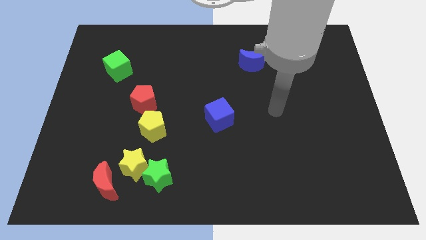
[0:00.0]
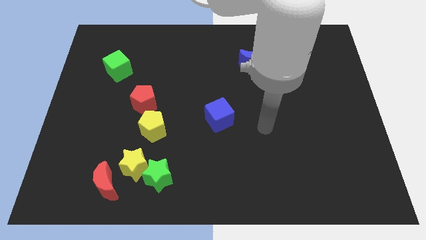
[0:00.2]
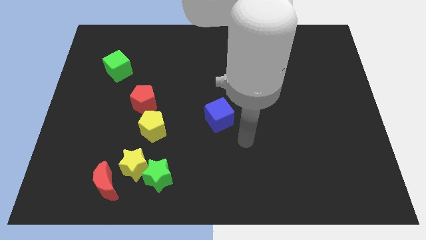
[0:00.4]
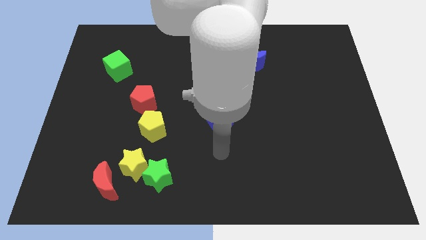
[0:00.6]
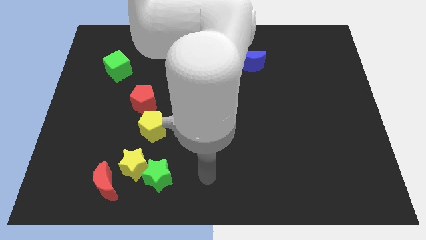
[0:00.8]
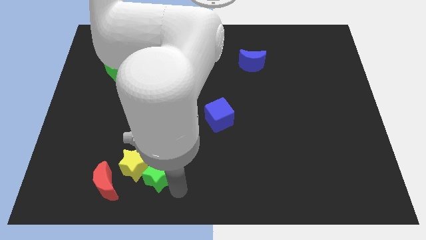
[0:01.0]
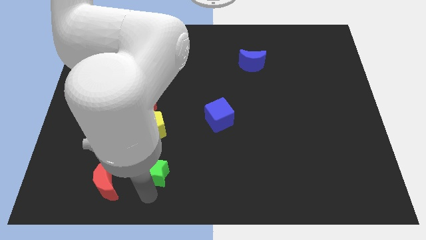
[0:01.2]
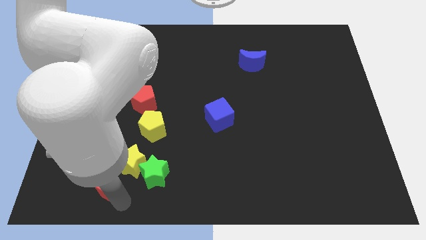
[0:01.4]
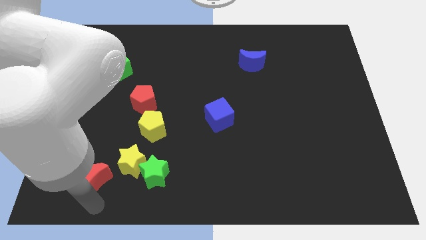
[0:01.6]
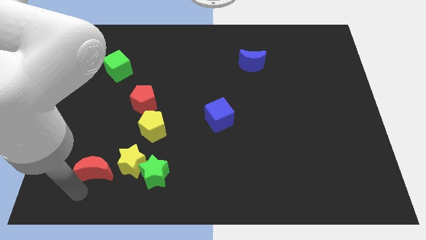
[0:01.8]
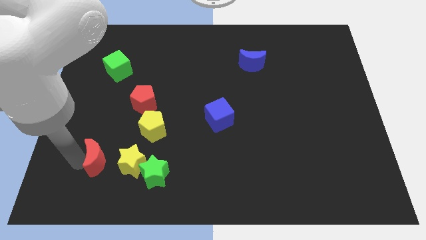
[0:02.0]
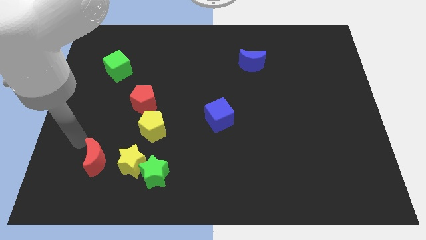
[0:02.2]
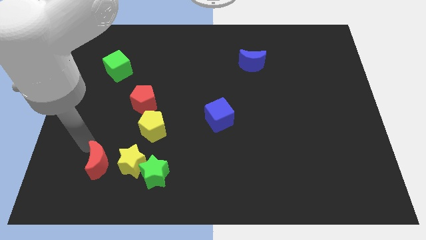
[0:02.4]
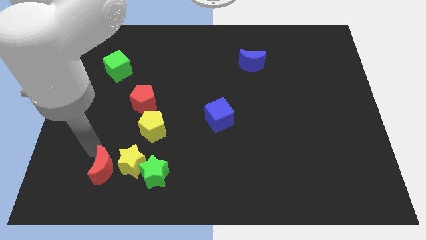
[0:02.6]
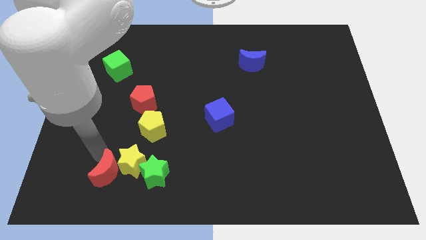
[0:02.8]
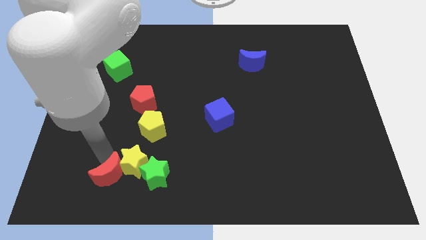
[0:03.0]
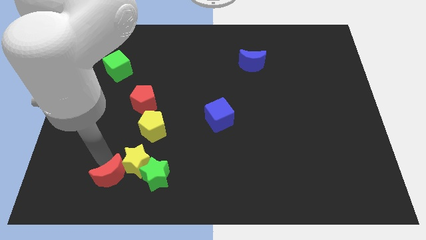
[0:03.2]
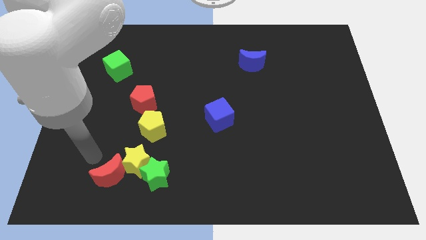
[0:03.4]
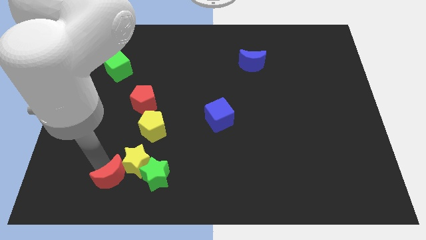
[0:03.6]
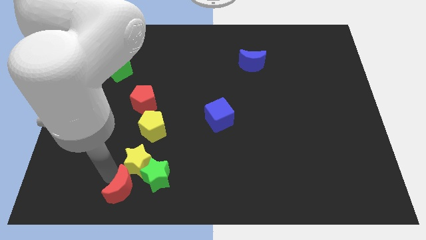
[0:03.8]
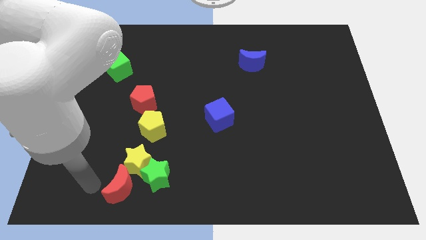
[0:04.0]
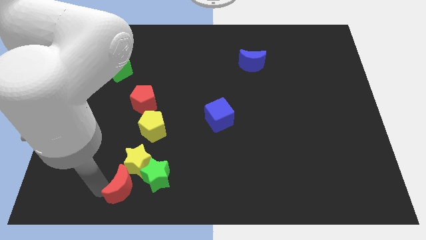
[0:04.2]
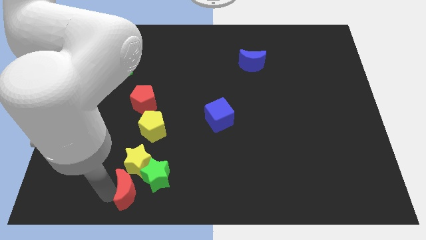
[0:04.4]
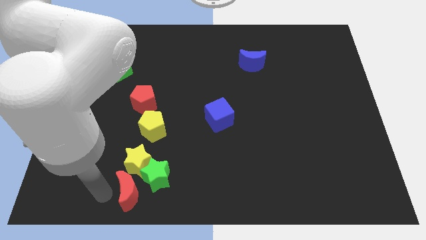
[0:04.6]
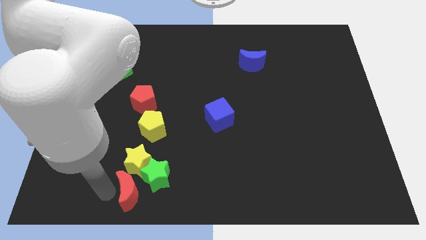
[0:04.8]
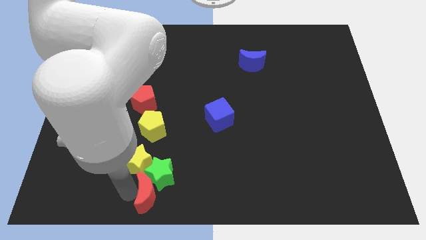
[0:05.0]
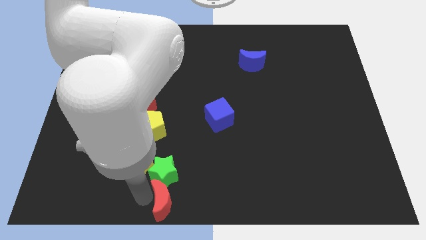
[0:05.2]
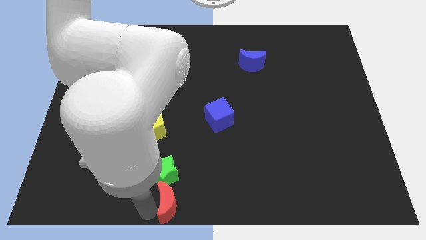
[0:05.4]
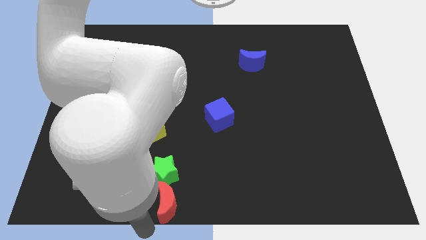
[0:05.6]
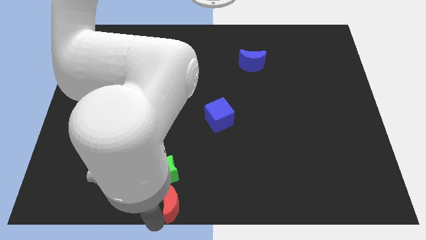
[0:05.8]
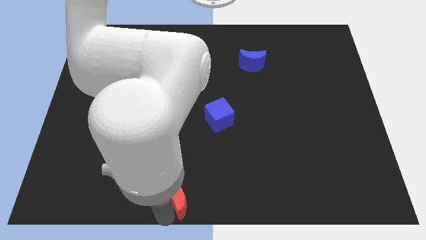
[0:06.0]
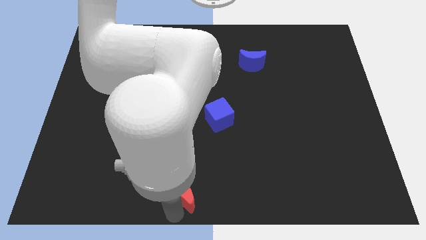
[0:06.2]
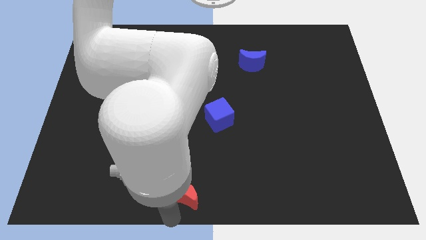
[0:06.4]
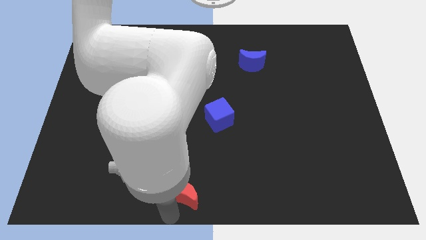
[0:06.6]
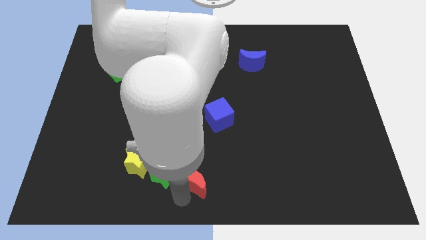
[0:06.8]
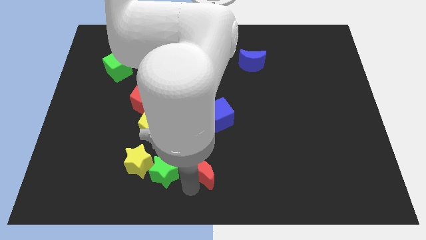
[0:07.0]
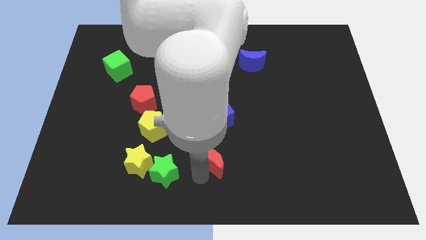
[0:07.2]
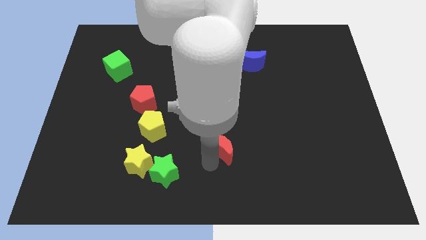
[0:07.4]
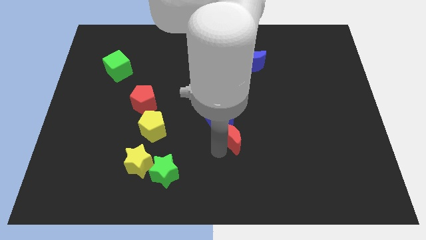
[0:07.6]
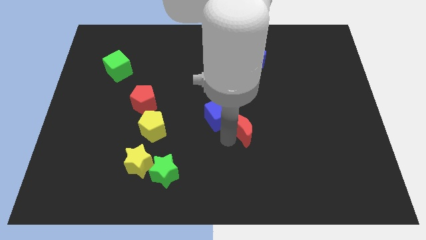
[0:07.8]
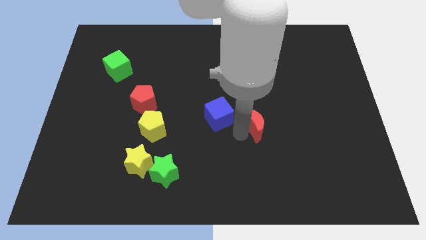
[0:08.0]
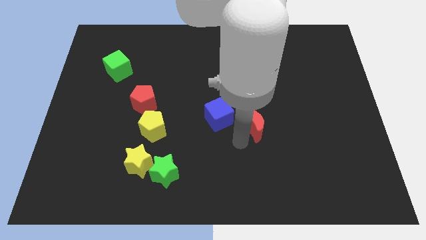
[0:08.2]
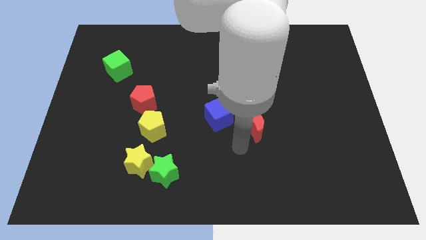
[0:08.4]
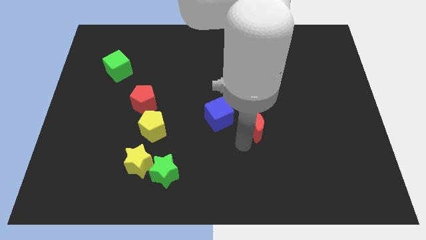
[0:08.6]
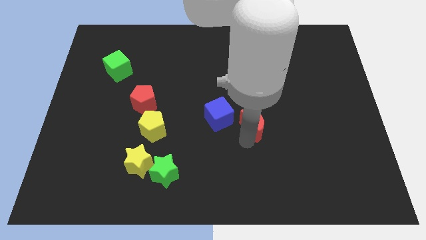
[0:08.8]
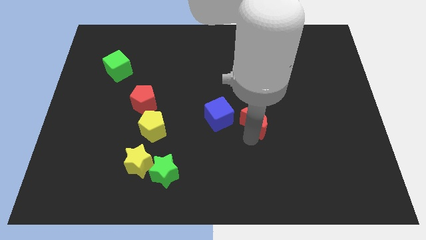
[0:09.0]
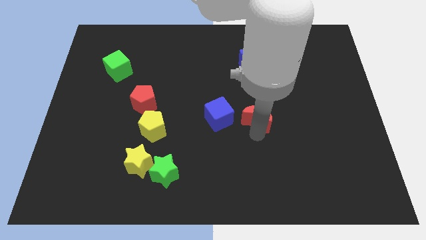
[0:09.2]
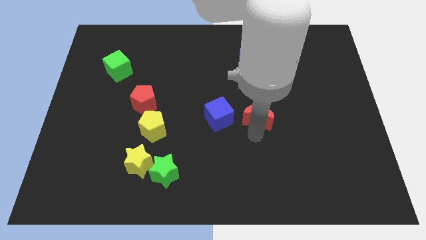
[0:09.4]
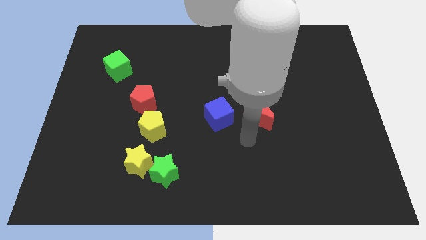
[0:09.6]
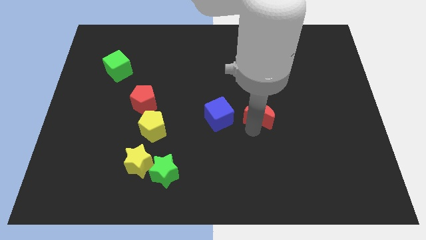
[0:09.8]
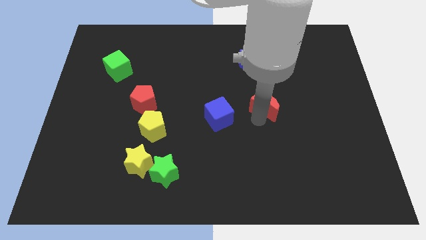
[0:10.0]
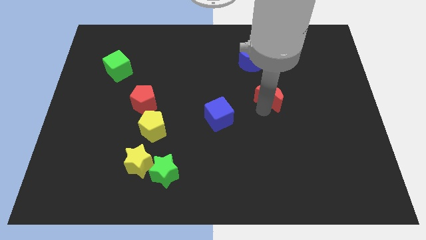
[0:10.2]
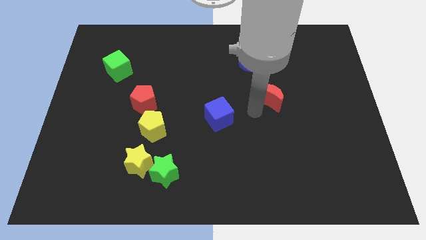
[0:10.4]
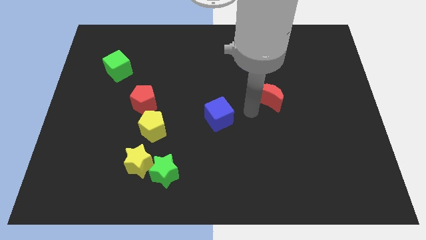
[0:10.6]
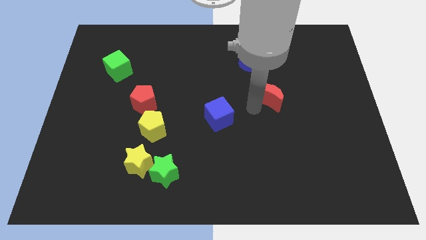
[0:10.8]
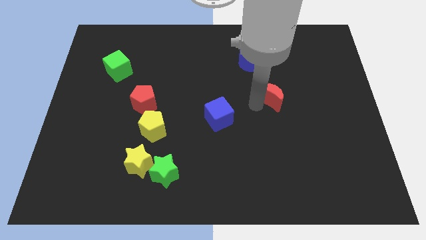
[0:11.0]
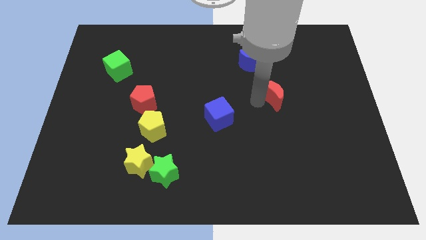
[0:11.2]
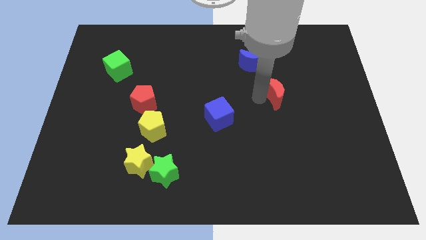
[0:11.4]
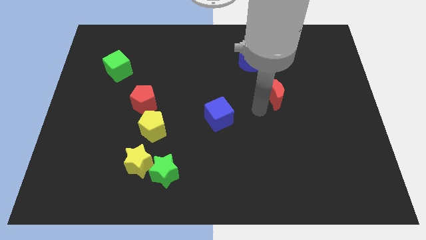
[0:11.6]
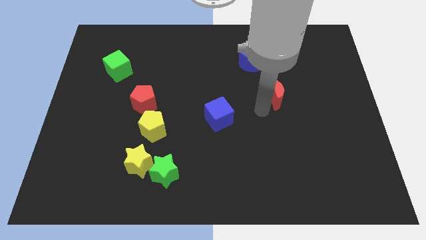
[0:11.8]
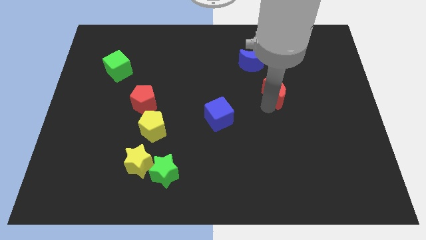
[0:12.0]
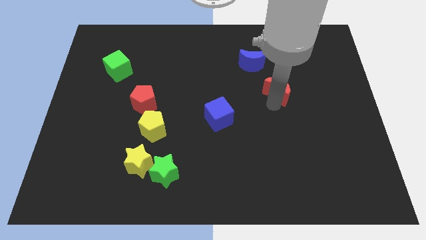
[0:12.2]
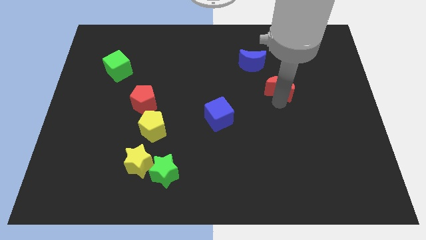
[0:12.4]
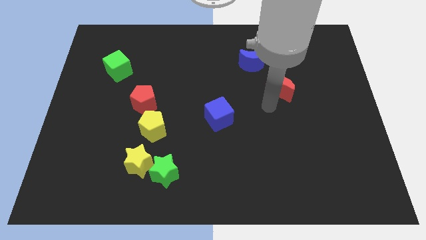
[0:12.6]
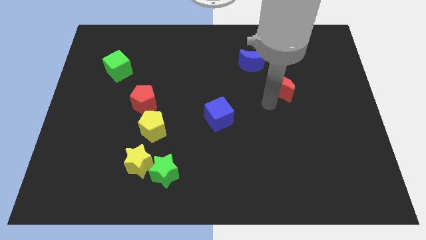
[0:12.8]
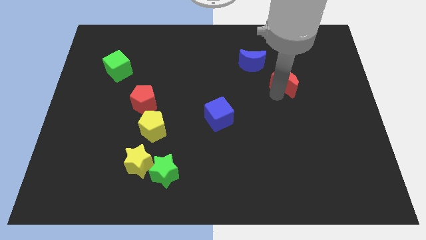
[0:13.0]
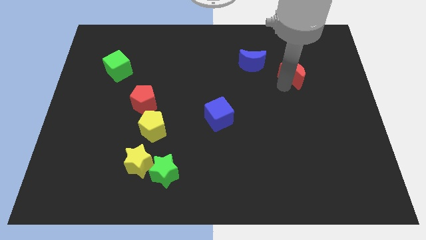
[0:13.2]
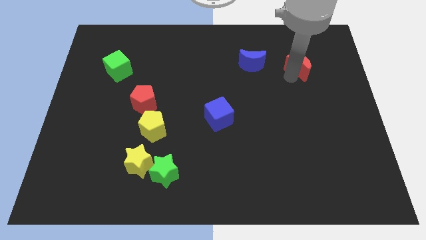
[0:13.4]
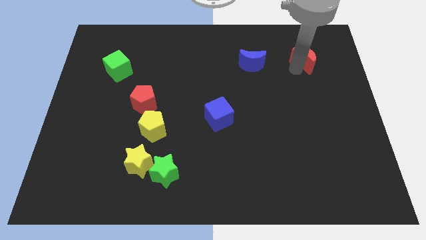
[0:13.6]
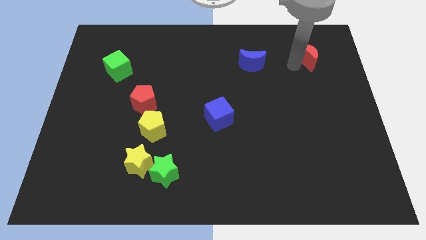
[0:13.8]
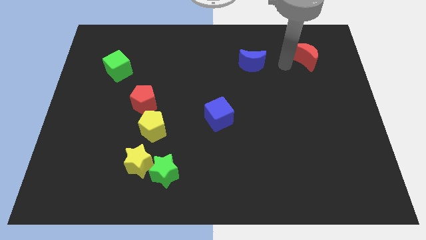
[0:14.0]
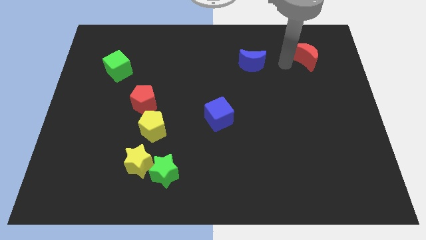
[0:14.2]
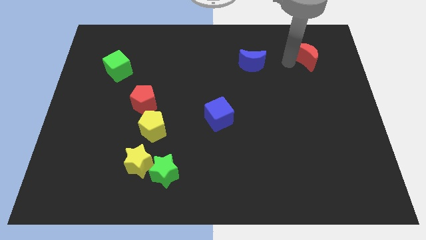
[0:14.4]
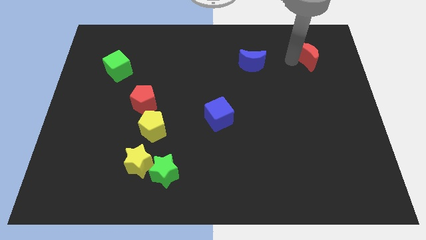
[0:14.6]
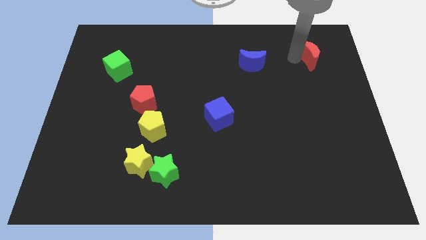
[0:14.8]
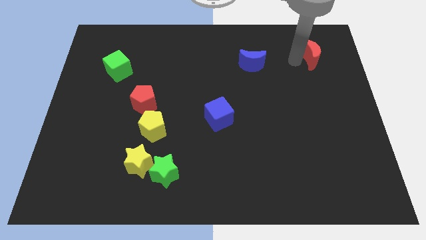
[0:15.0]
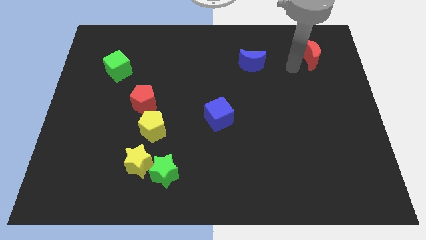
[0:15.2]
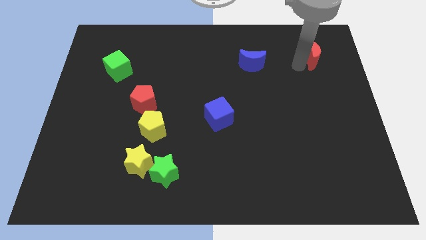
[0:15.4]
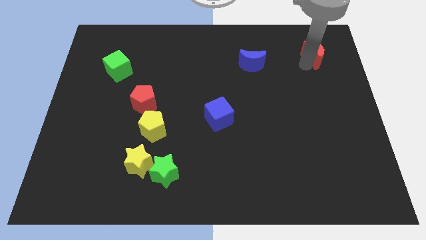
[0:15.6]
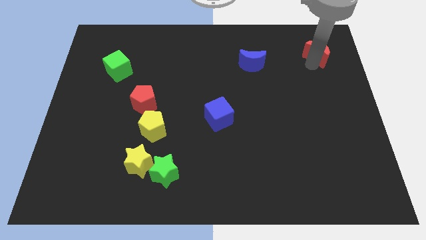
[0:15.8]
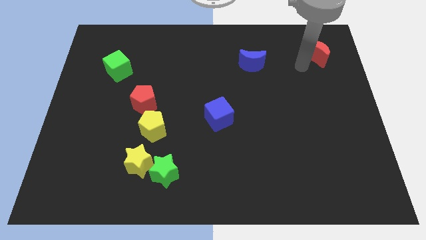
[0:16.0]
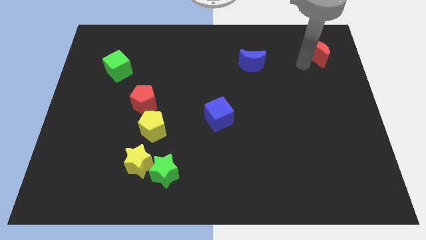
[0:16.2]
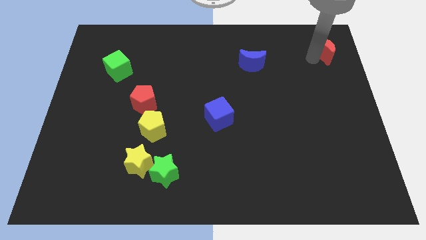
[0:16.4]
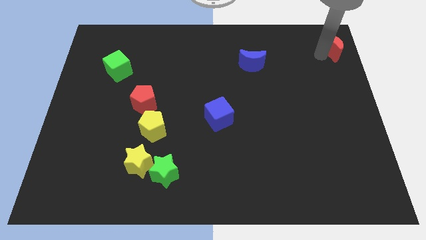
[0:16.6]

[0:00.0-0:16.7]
slide the red moon to the upper right corner
